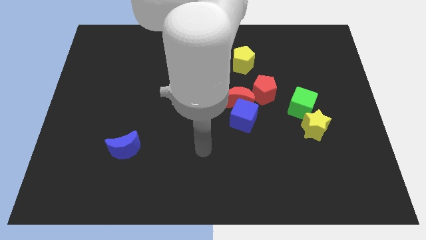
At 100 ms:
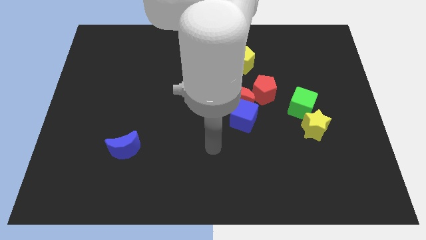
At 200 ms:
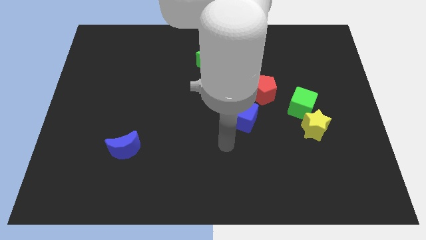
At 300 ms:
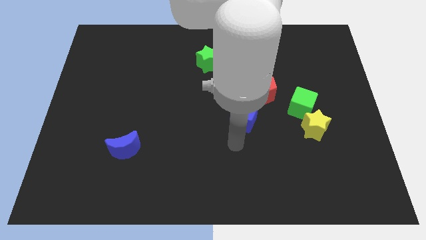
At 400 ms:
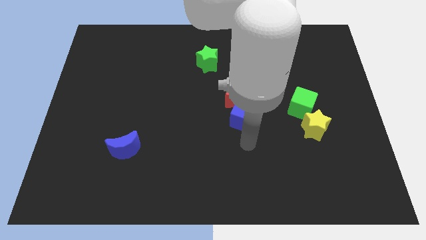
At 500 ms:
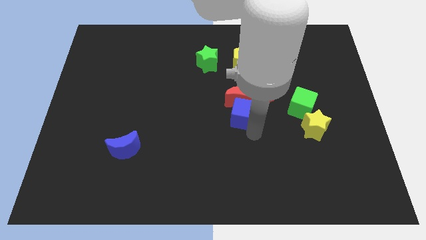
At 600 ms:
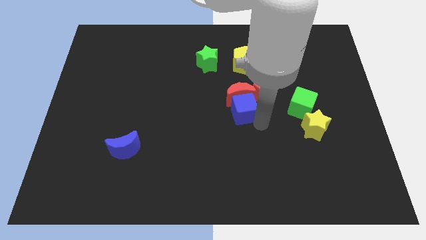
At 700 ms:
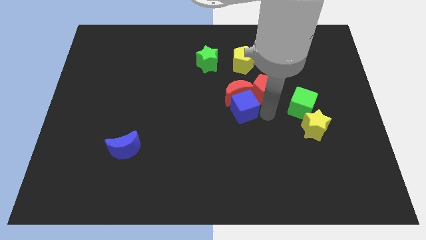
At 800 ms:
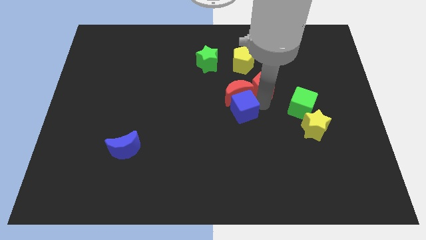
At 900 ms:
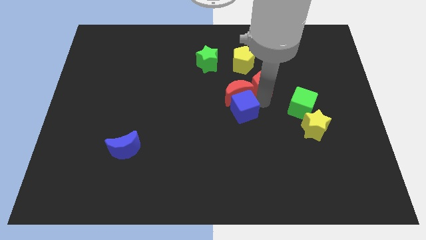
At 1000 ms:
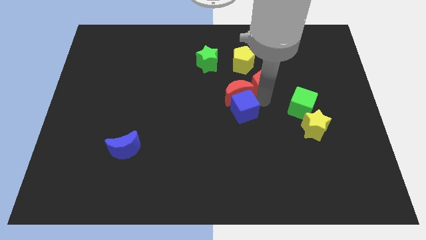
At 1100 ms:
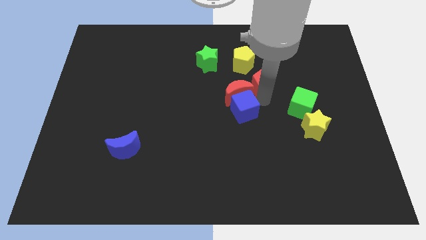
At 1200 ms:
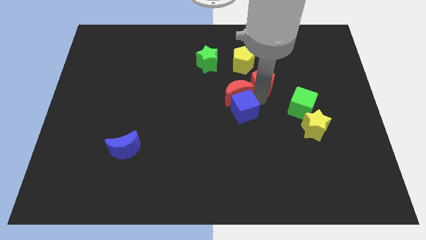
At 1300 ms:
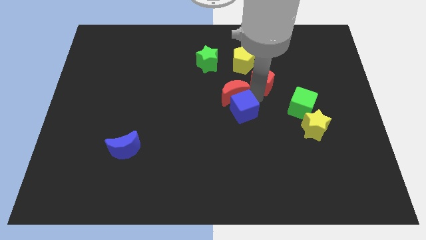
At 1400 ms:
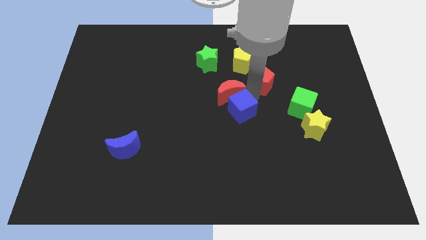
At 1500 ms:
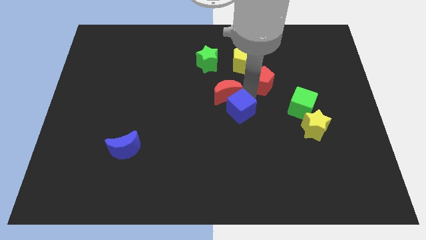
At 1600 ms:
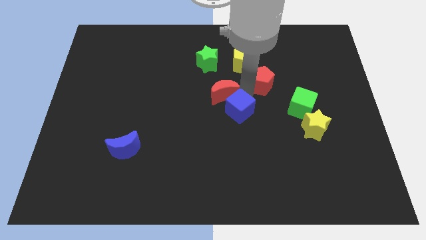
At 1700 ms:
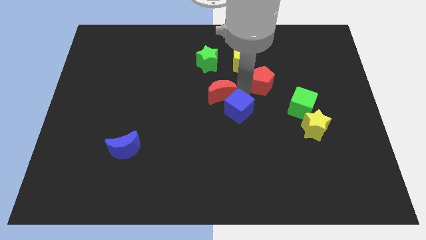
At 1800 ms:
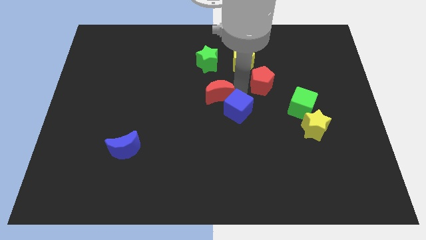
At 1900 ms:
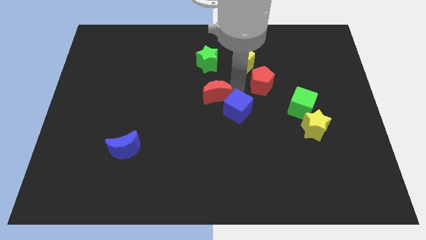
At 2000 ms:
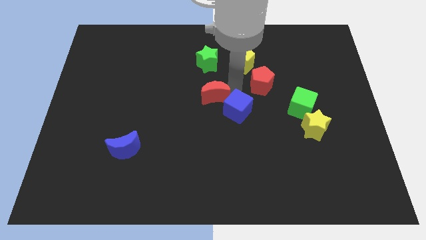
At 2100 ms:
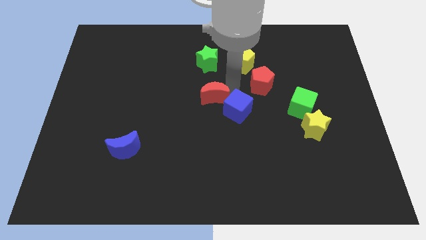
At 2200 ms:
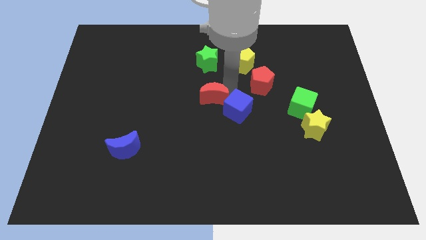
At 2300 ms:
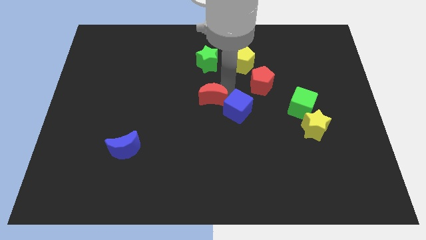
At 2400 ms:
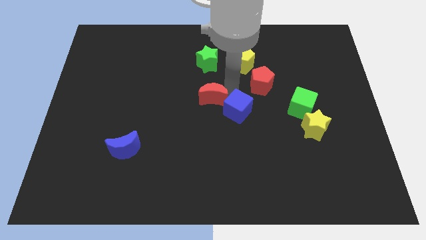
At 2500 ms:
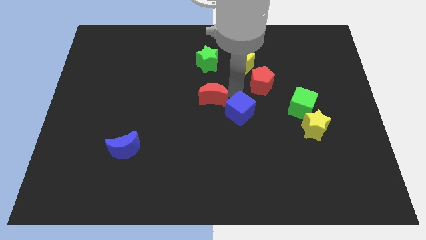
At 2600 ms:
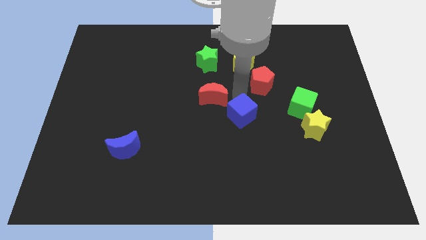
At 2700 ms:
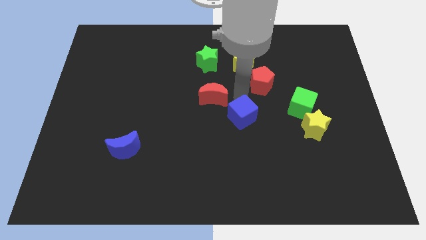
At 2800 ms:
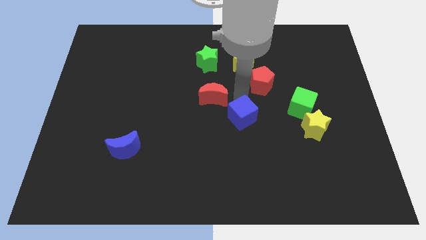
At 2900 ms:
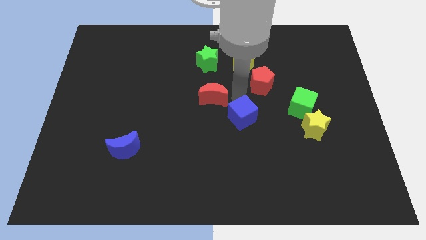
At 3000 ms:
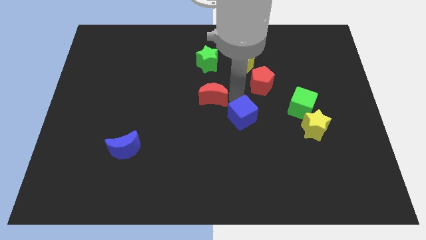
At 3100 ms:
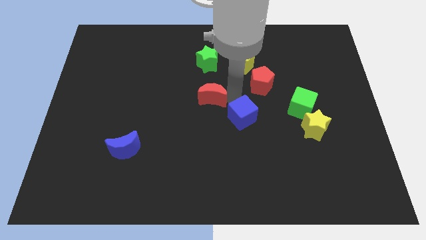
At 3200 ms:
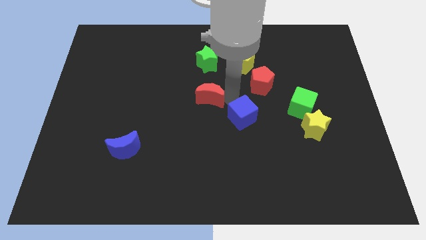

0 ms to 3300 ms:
move the red moon away from the blue cube and red pentagon

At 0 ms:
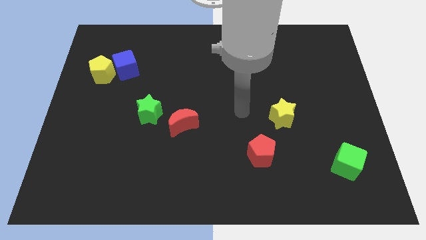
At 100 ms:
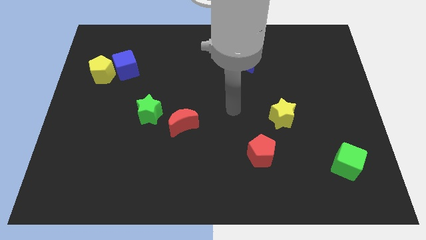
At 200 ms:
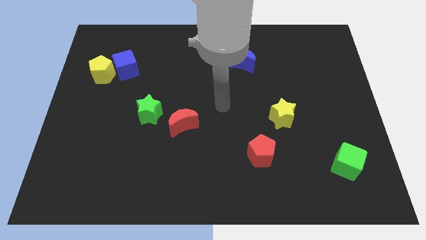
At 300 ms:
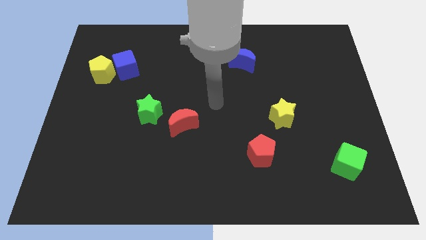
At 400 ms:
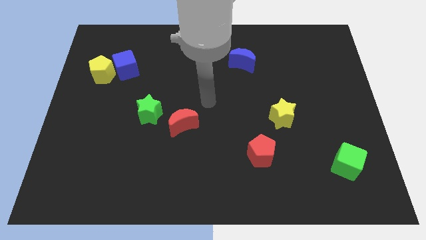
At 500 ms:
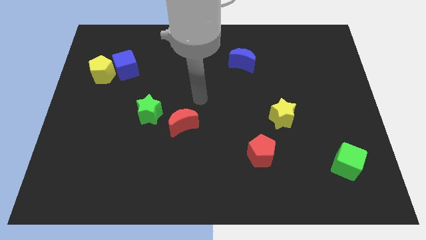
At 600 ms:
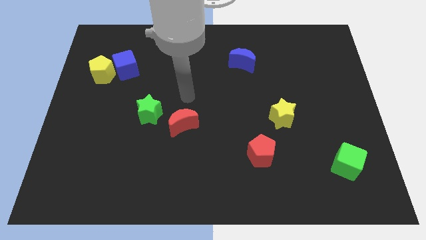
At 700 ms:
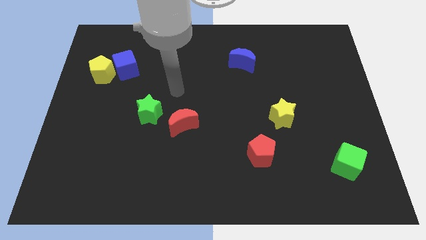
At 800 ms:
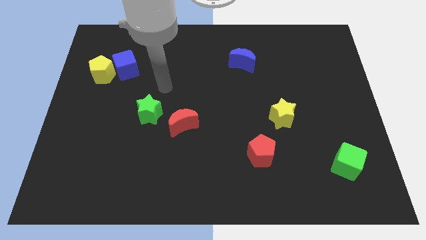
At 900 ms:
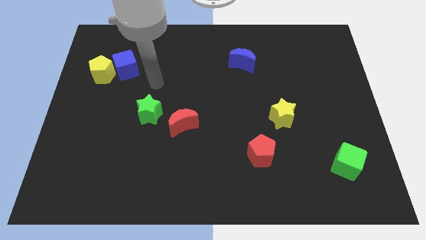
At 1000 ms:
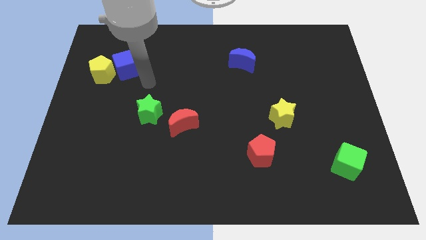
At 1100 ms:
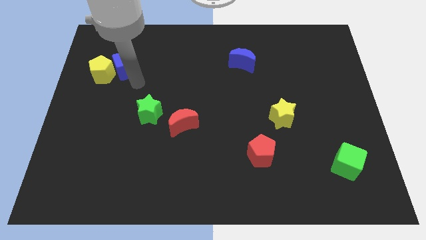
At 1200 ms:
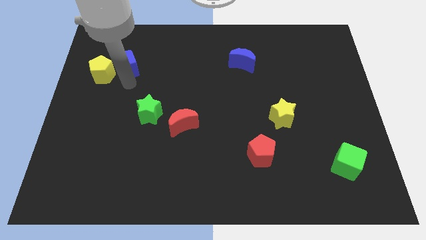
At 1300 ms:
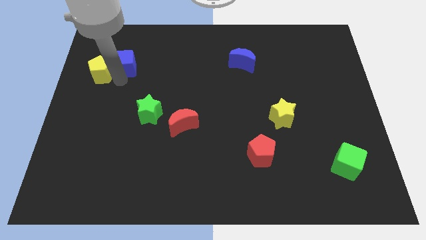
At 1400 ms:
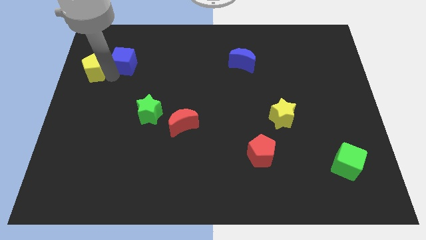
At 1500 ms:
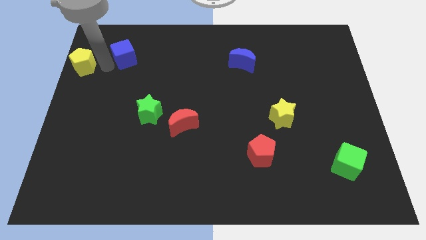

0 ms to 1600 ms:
move the blue cube away from the yellow pentagon

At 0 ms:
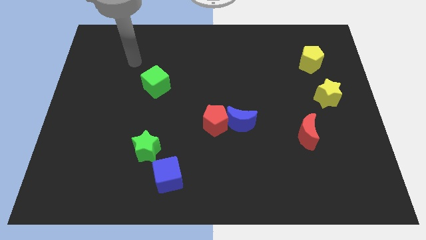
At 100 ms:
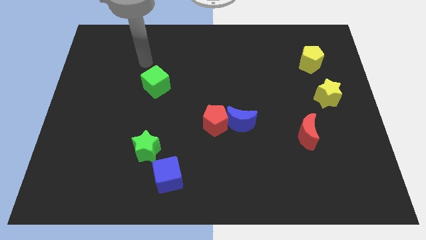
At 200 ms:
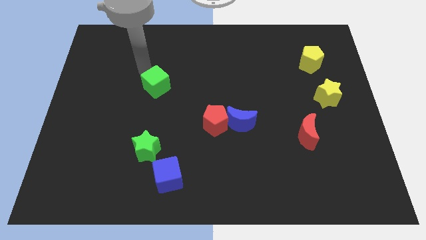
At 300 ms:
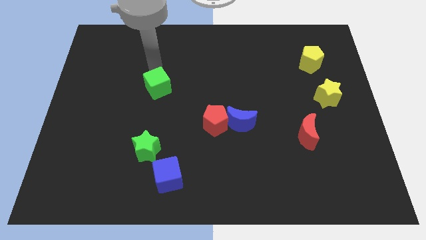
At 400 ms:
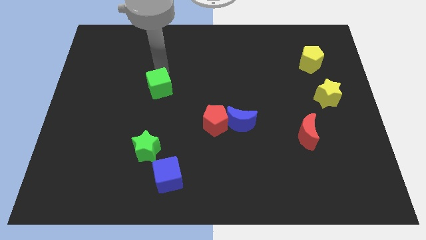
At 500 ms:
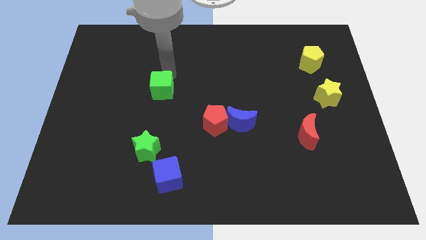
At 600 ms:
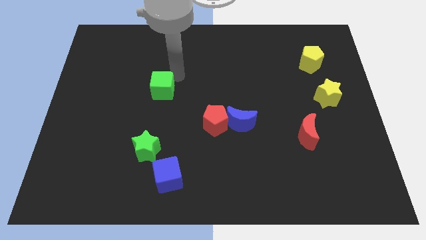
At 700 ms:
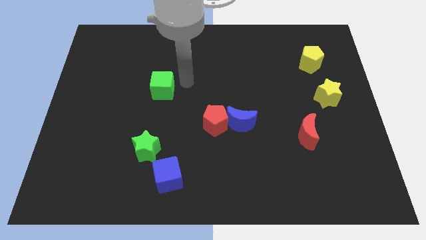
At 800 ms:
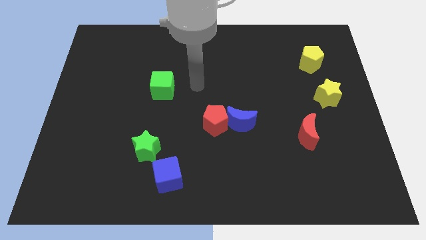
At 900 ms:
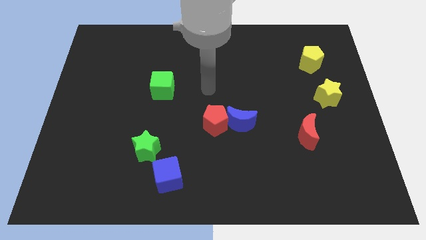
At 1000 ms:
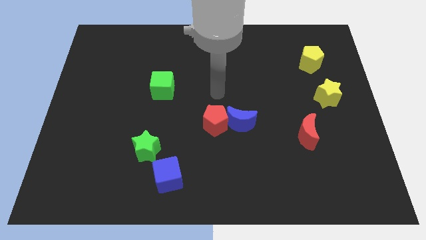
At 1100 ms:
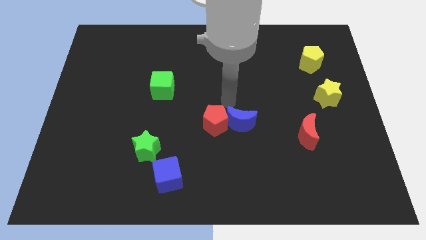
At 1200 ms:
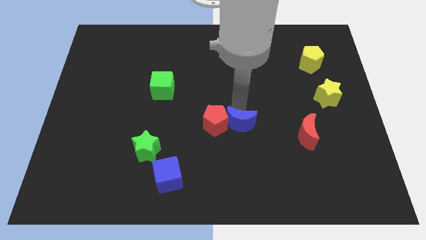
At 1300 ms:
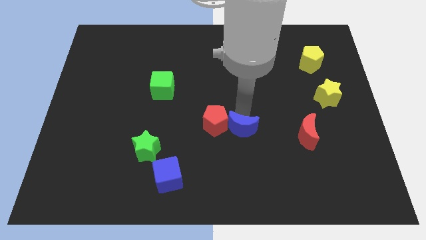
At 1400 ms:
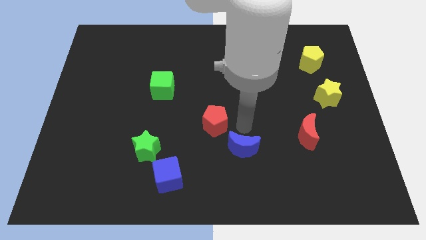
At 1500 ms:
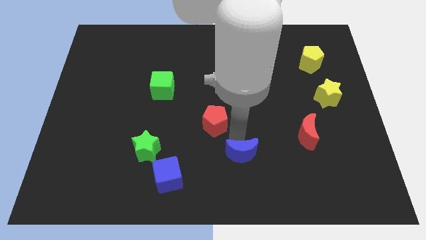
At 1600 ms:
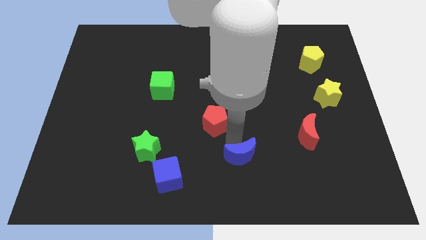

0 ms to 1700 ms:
separate the red pentagon from the blue moon

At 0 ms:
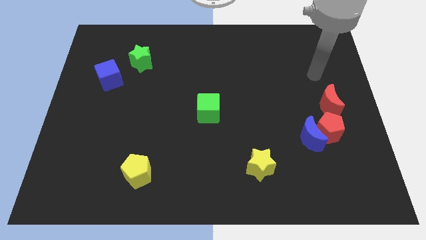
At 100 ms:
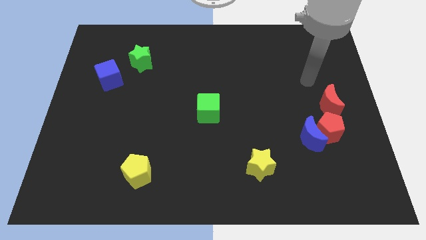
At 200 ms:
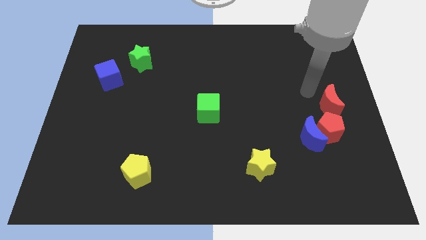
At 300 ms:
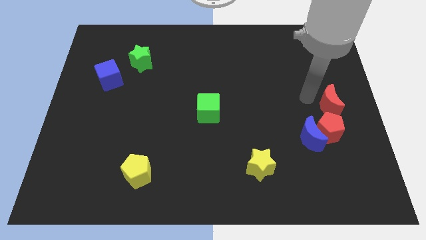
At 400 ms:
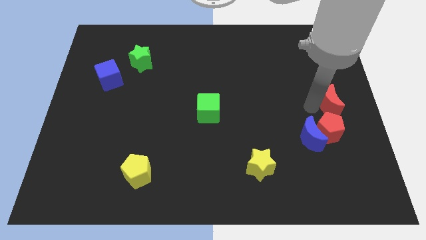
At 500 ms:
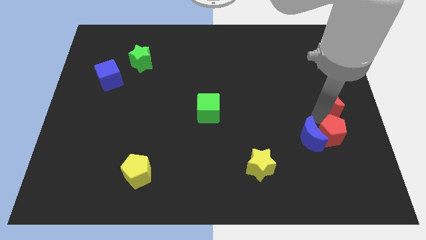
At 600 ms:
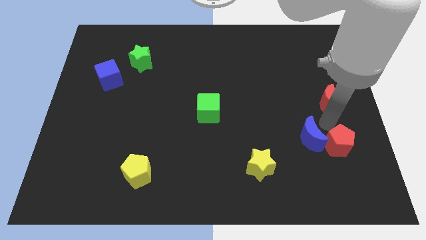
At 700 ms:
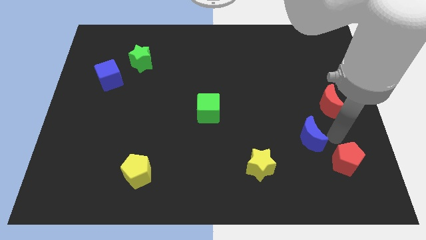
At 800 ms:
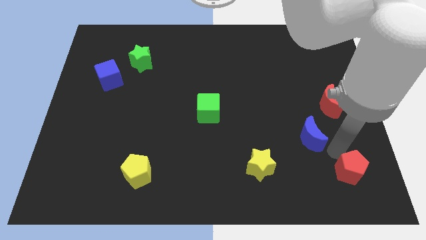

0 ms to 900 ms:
move the blue moon away from the red pentagon

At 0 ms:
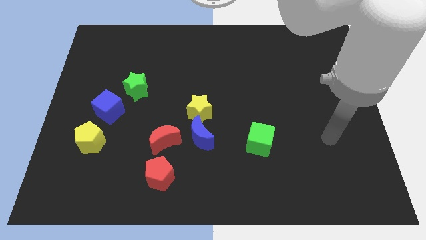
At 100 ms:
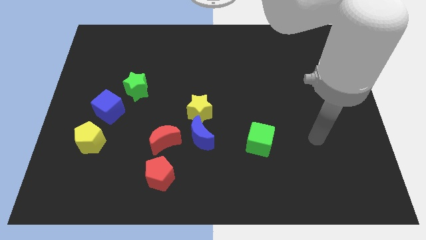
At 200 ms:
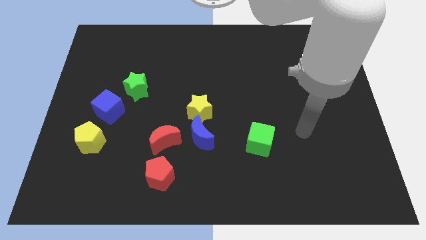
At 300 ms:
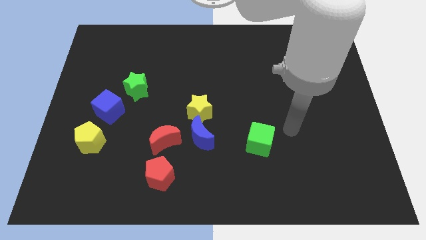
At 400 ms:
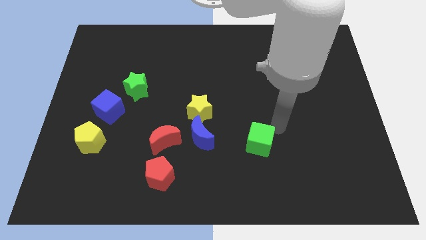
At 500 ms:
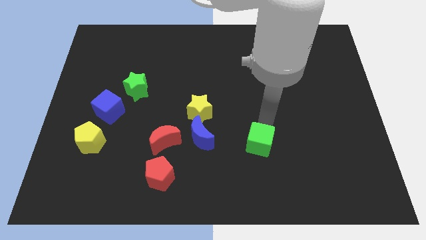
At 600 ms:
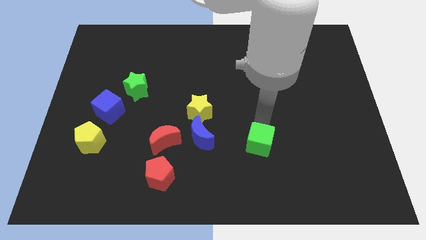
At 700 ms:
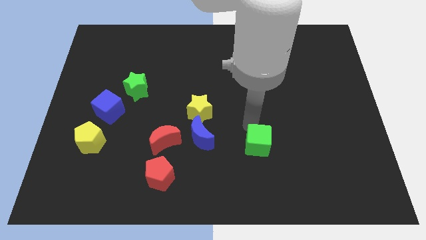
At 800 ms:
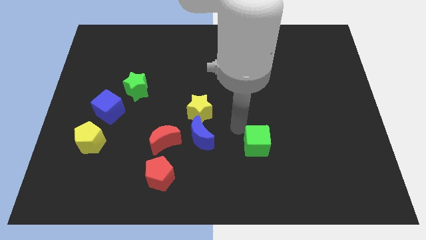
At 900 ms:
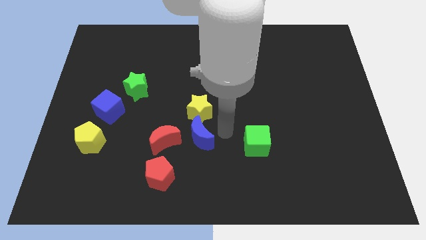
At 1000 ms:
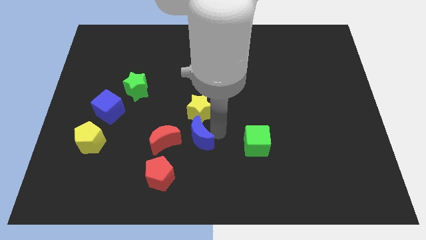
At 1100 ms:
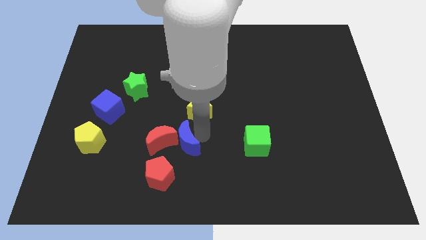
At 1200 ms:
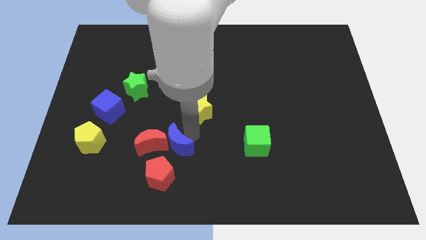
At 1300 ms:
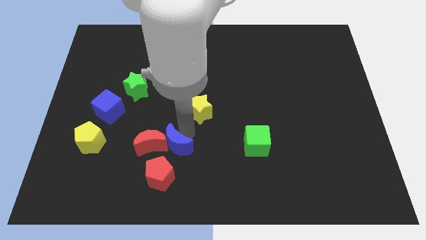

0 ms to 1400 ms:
pull the yellow star apart from the blue moon

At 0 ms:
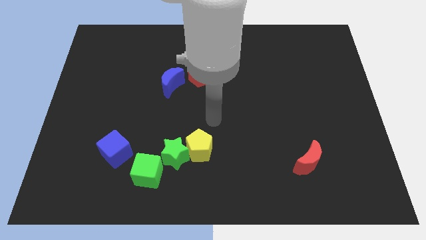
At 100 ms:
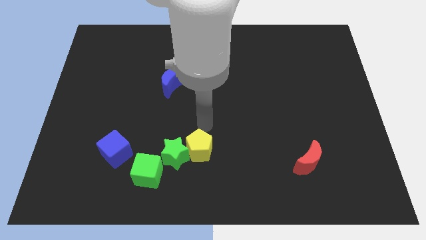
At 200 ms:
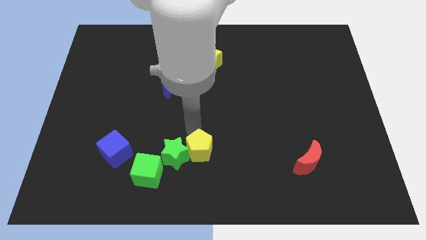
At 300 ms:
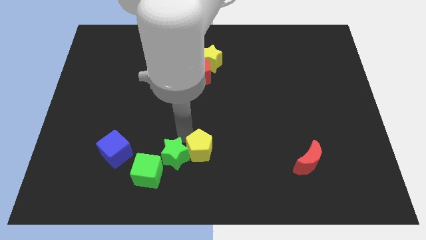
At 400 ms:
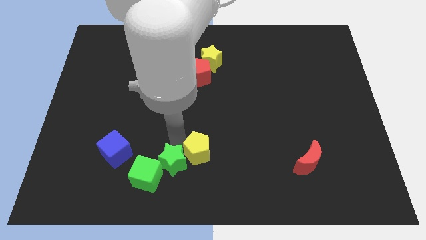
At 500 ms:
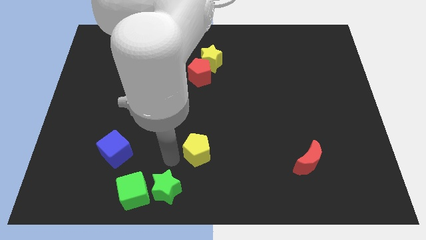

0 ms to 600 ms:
pull the yellow pentagon apart from the green star

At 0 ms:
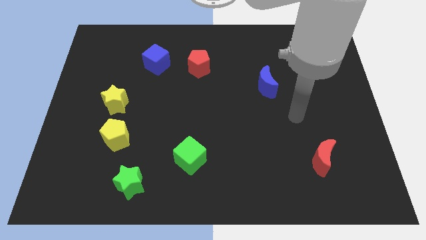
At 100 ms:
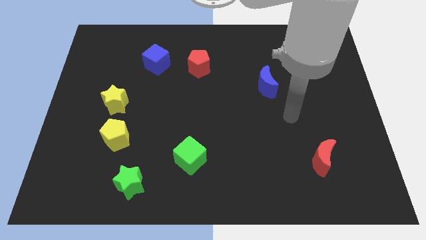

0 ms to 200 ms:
pull the yellow star apart from the yellow pentagon
